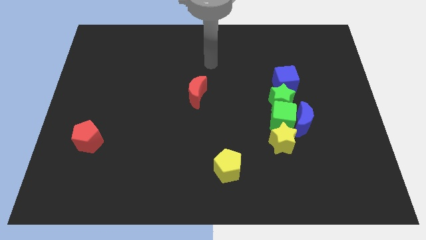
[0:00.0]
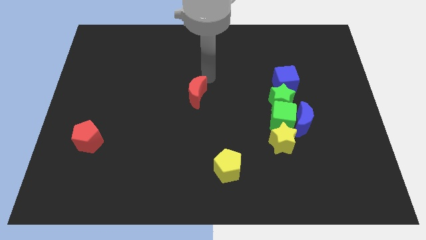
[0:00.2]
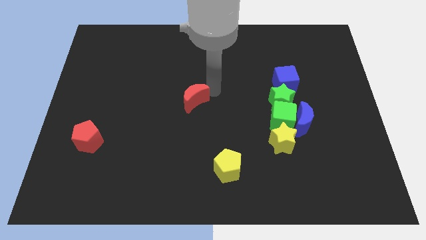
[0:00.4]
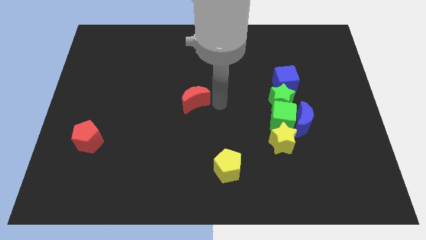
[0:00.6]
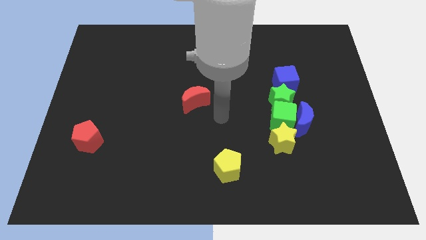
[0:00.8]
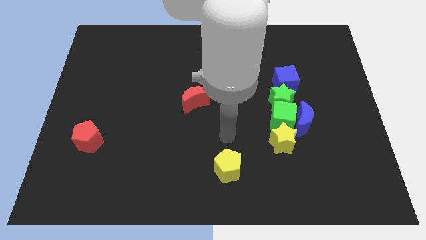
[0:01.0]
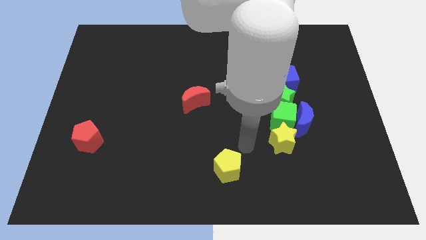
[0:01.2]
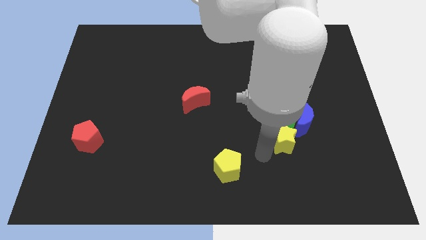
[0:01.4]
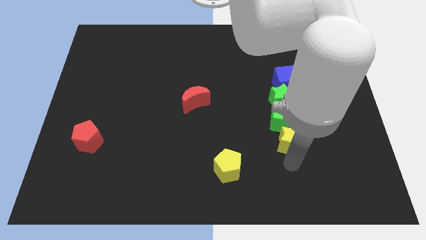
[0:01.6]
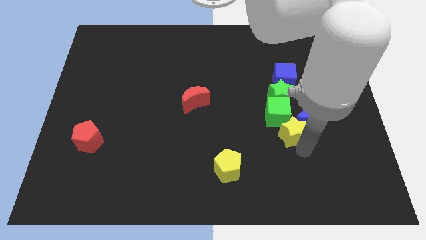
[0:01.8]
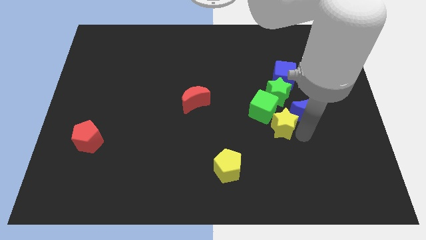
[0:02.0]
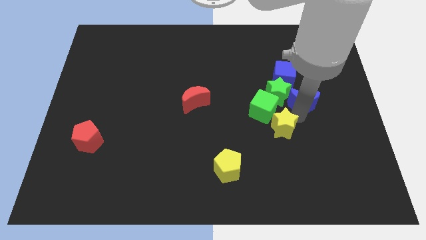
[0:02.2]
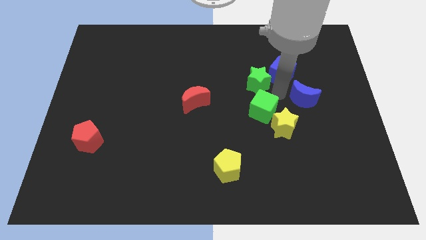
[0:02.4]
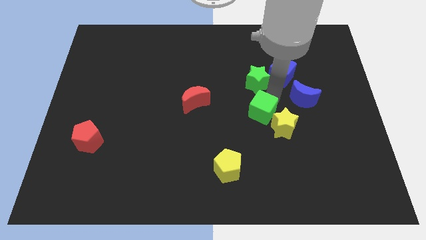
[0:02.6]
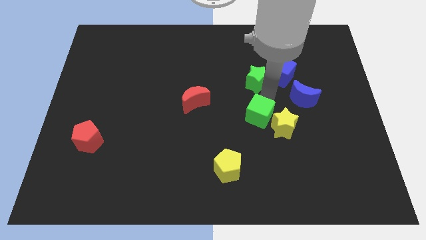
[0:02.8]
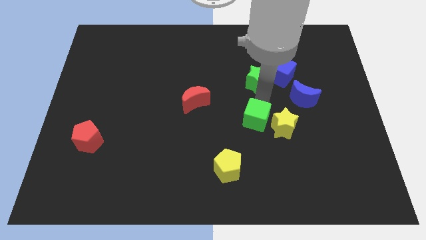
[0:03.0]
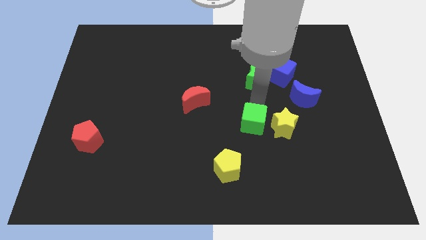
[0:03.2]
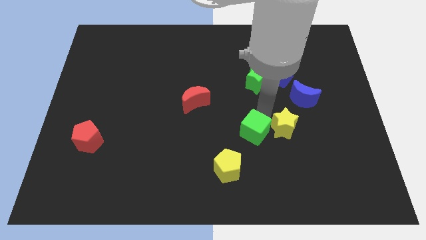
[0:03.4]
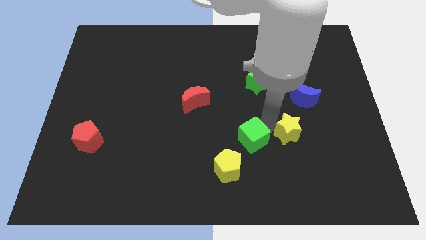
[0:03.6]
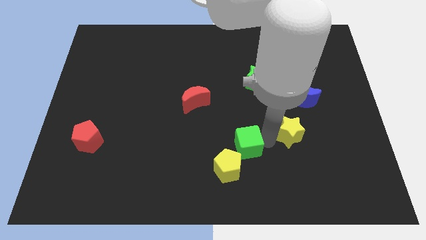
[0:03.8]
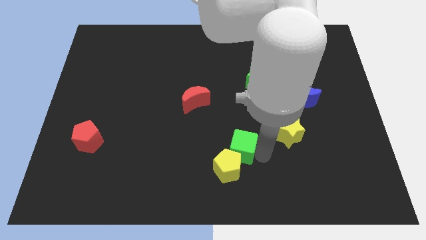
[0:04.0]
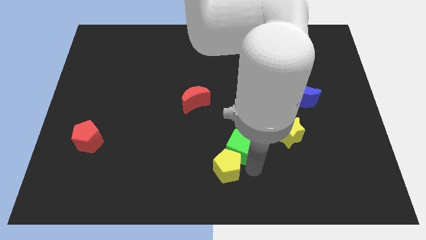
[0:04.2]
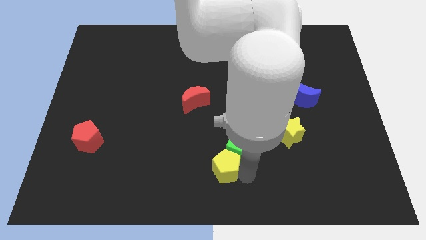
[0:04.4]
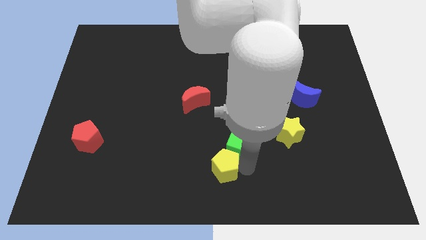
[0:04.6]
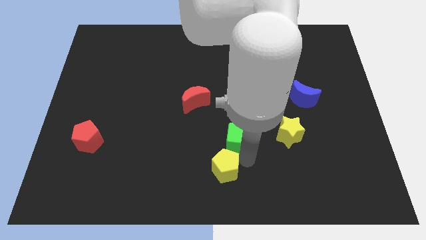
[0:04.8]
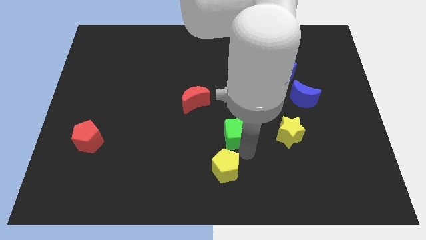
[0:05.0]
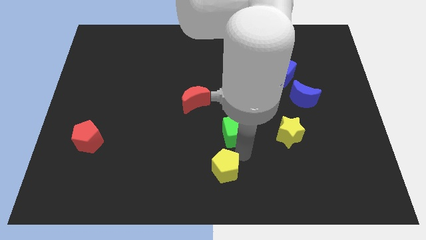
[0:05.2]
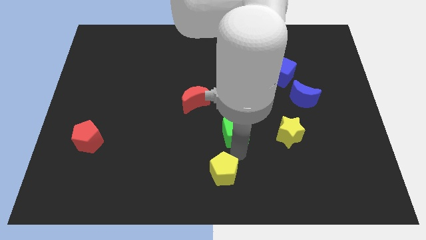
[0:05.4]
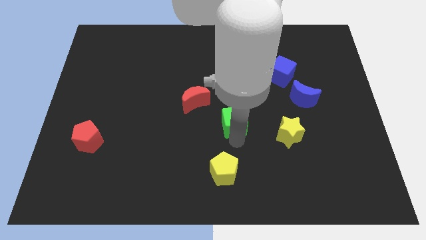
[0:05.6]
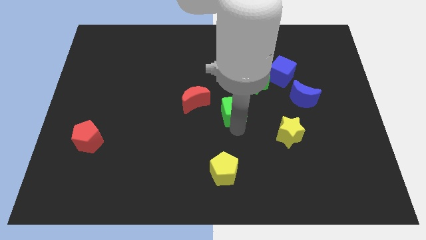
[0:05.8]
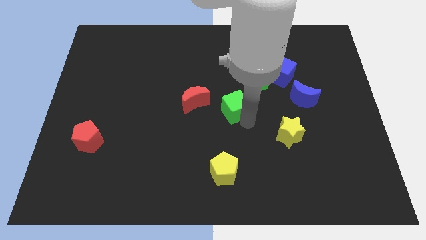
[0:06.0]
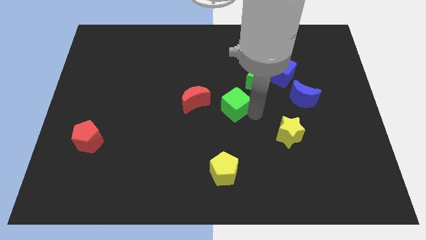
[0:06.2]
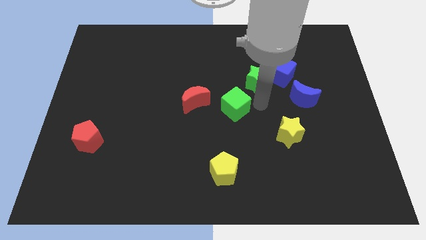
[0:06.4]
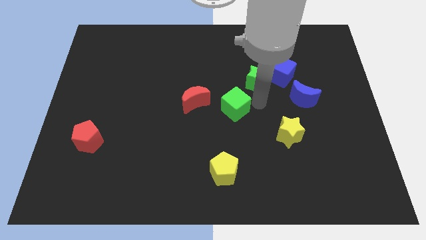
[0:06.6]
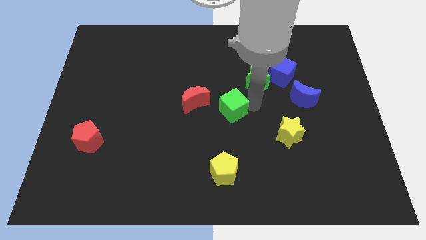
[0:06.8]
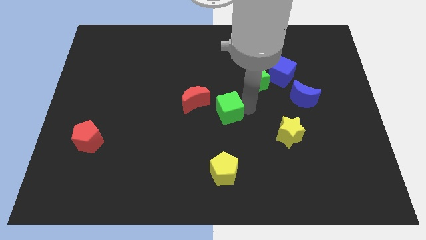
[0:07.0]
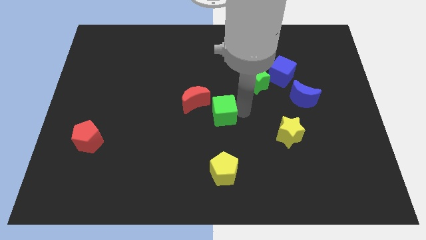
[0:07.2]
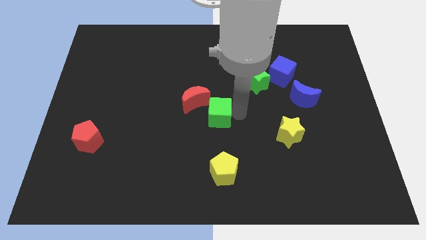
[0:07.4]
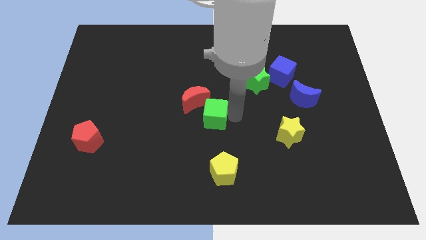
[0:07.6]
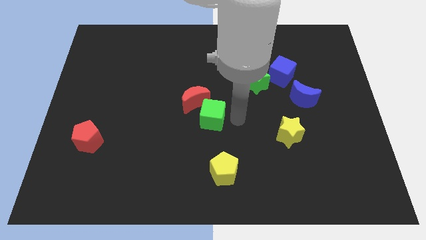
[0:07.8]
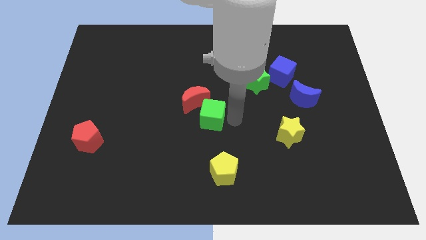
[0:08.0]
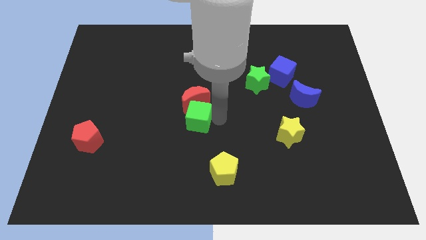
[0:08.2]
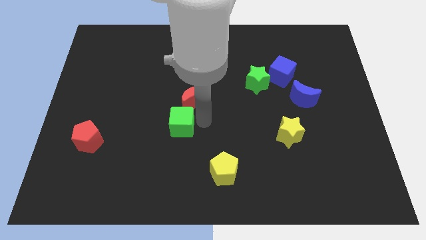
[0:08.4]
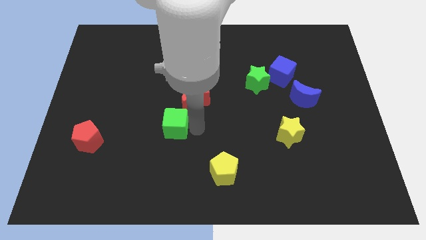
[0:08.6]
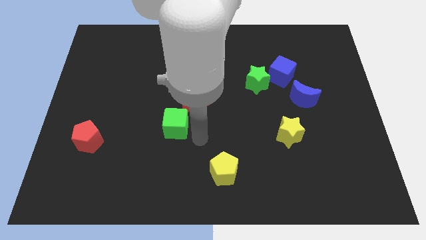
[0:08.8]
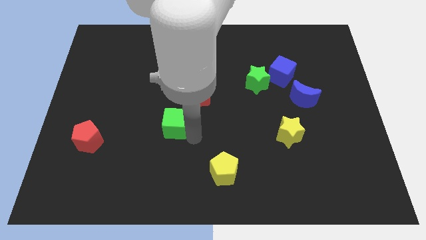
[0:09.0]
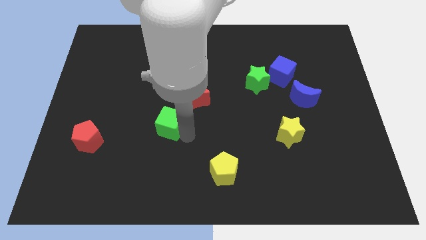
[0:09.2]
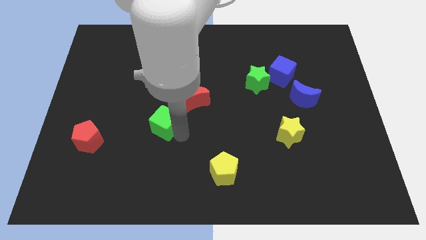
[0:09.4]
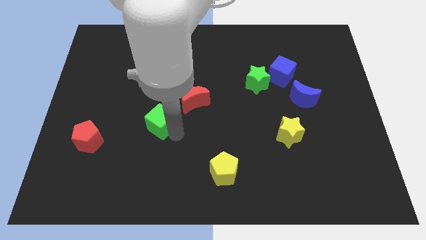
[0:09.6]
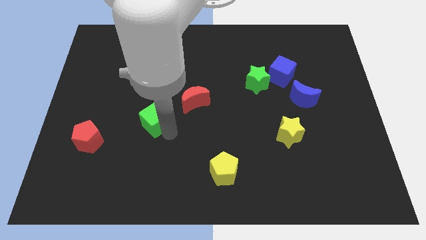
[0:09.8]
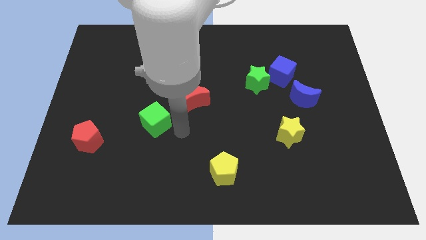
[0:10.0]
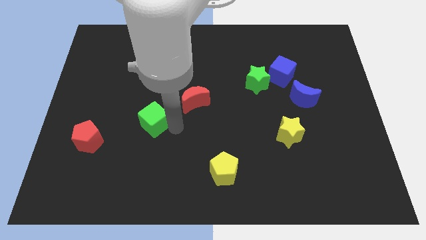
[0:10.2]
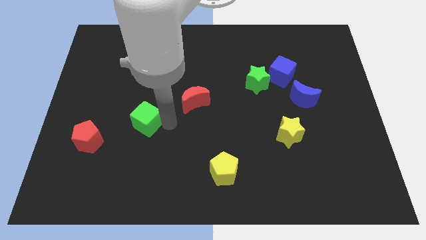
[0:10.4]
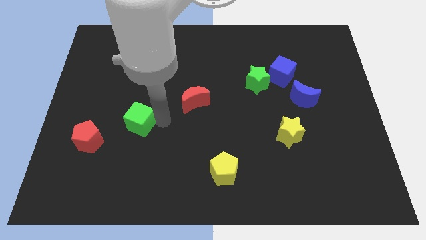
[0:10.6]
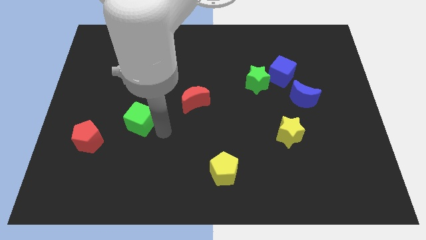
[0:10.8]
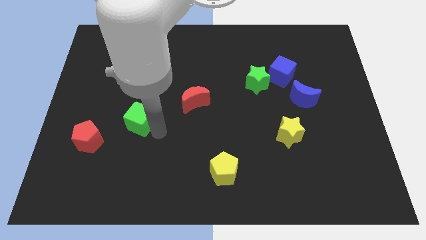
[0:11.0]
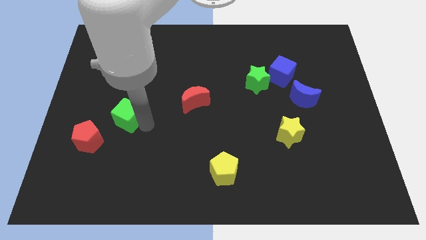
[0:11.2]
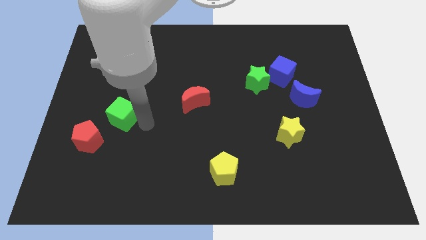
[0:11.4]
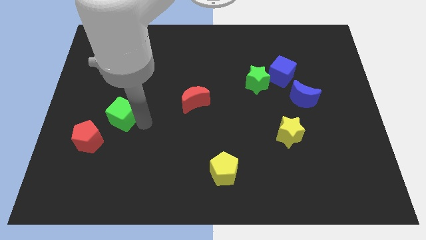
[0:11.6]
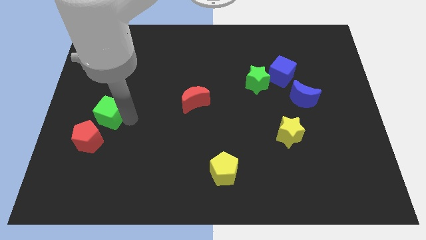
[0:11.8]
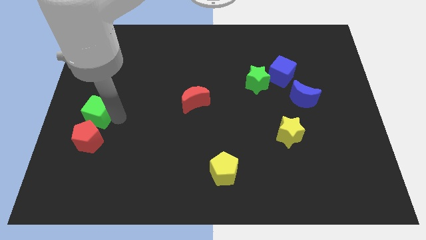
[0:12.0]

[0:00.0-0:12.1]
push the green cube to the left side
